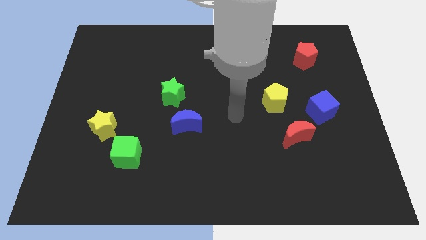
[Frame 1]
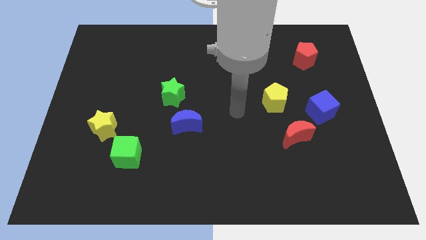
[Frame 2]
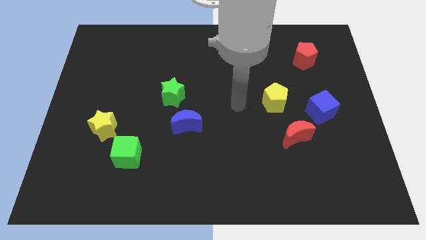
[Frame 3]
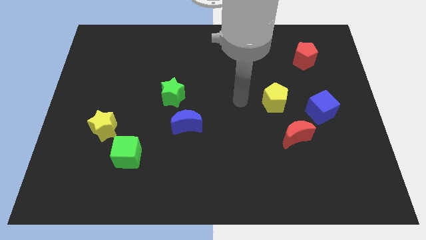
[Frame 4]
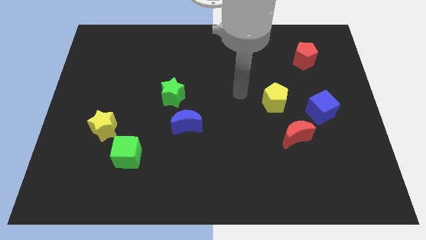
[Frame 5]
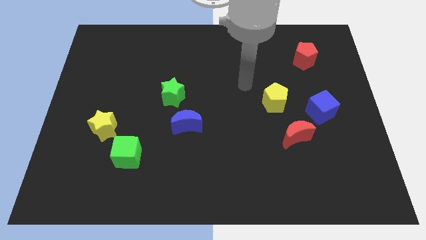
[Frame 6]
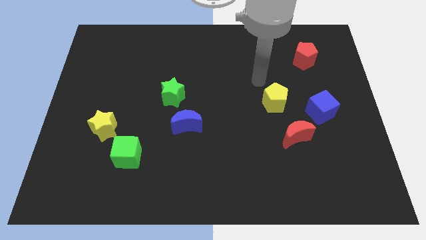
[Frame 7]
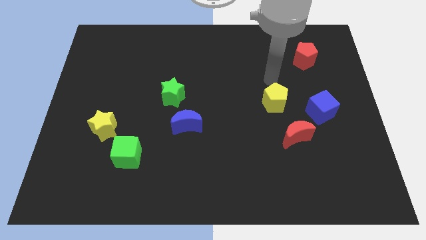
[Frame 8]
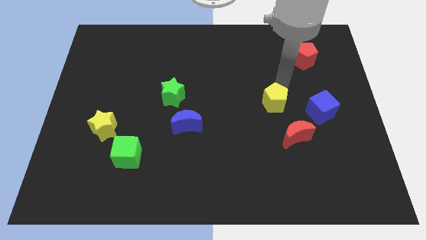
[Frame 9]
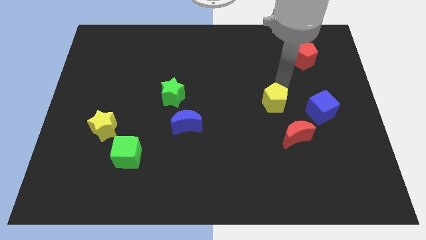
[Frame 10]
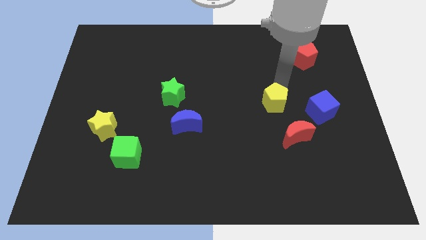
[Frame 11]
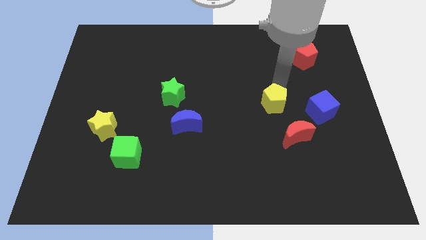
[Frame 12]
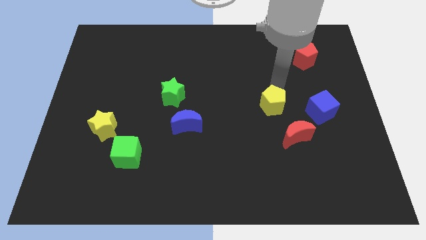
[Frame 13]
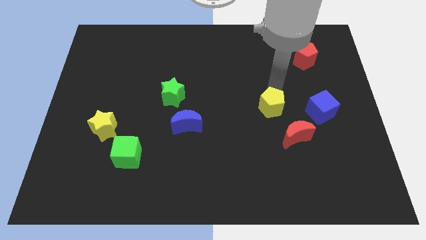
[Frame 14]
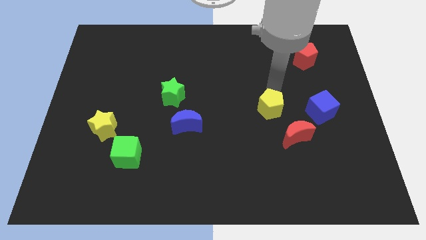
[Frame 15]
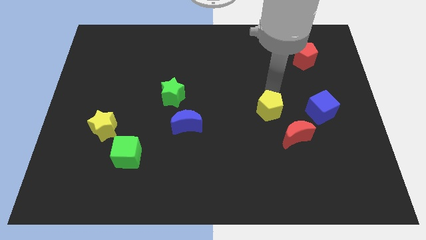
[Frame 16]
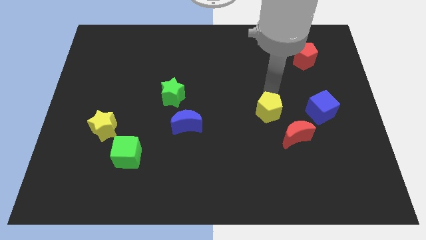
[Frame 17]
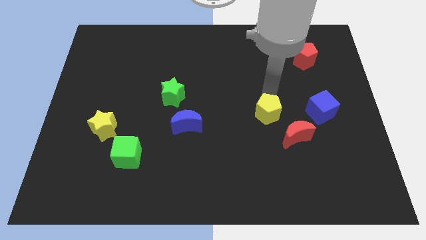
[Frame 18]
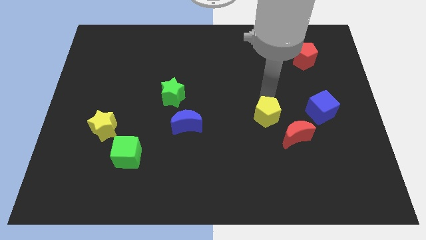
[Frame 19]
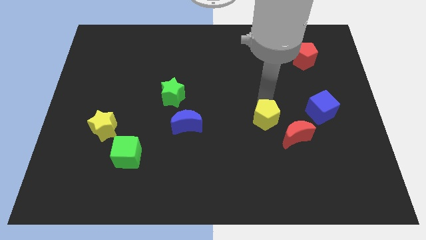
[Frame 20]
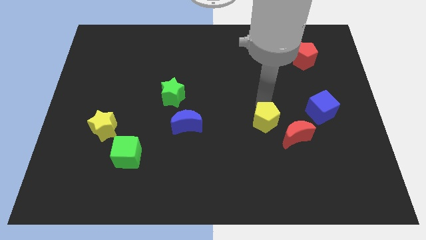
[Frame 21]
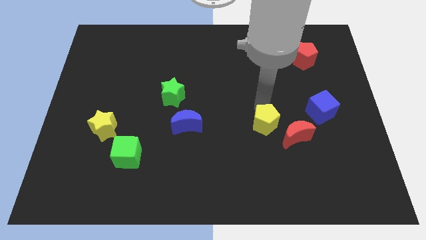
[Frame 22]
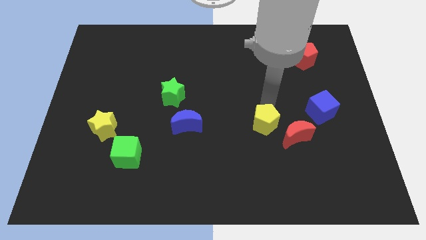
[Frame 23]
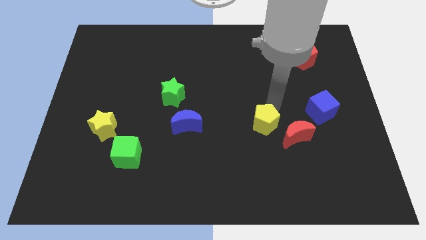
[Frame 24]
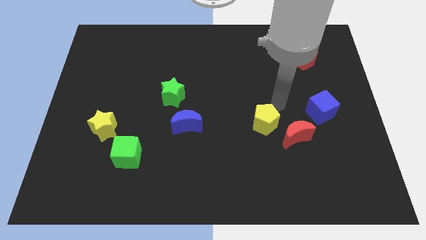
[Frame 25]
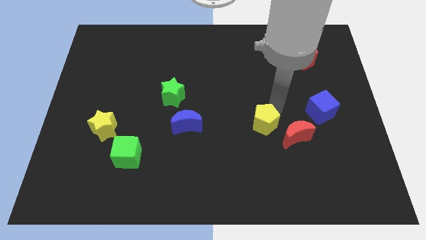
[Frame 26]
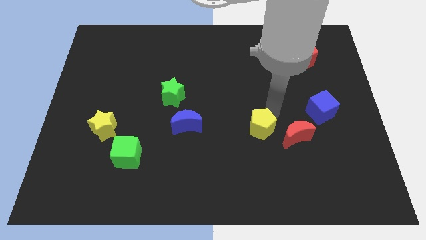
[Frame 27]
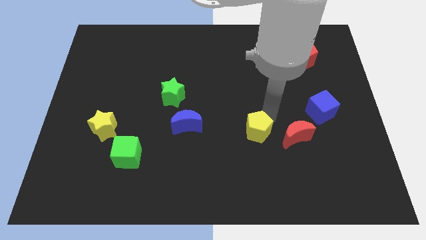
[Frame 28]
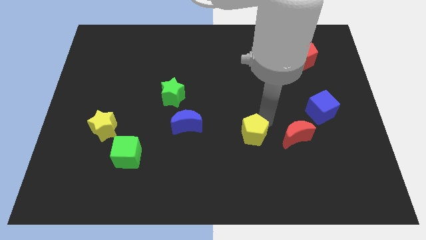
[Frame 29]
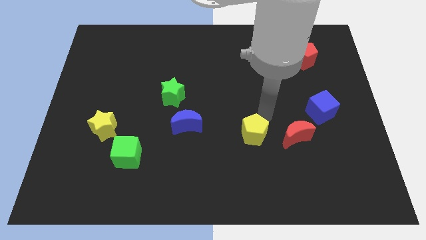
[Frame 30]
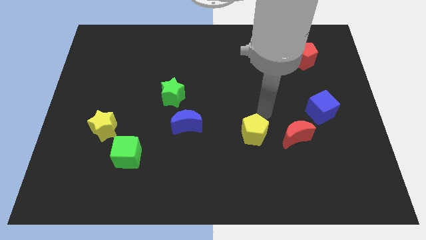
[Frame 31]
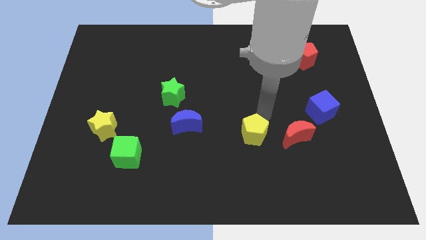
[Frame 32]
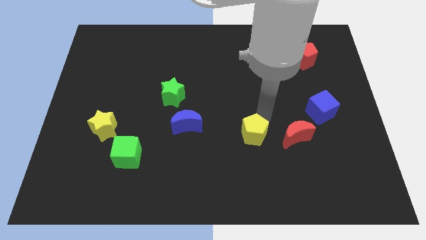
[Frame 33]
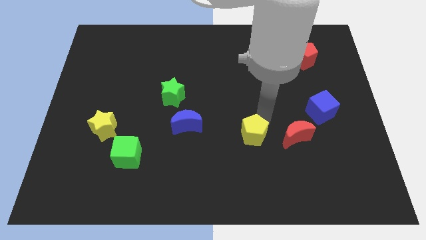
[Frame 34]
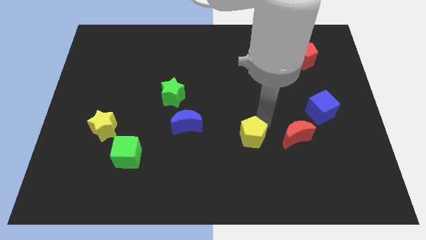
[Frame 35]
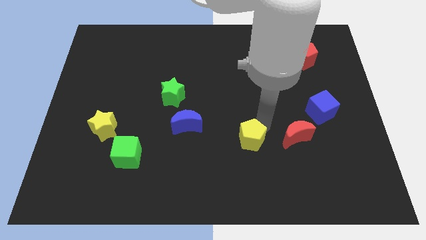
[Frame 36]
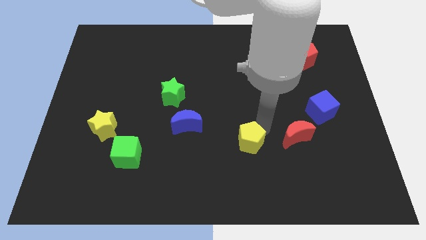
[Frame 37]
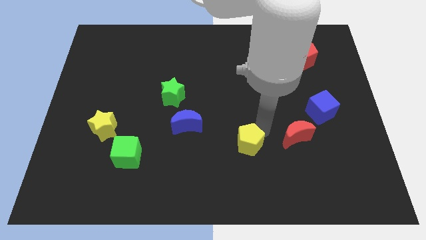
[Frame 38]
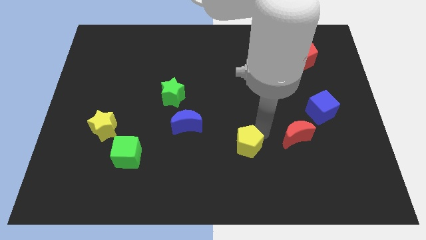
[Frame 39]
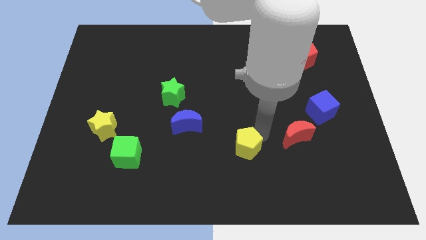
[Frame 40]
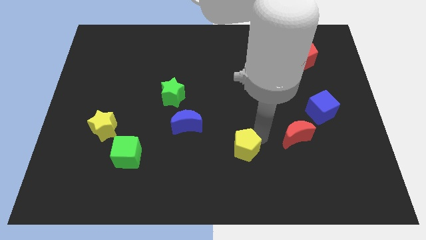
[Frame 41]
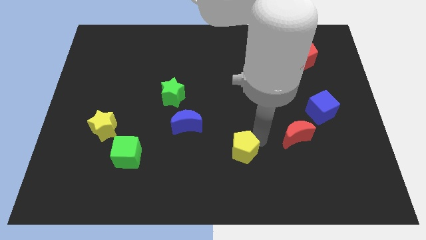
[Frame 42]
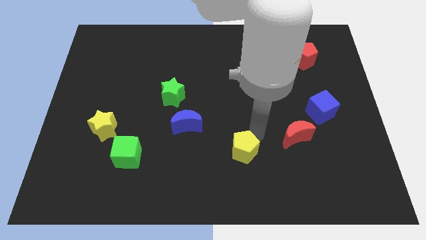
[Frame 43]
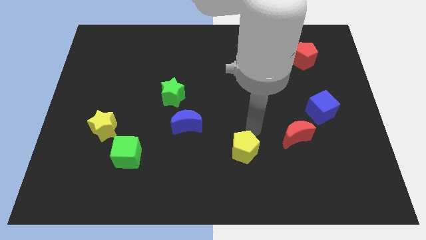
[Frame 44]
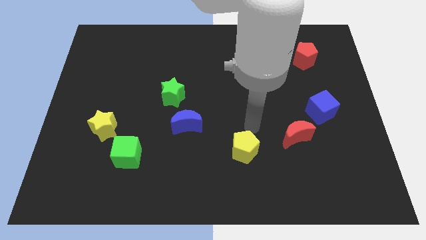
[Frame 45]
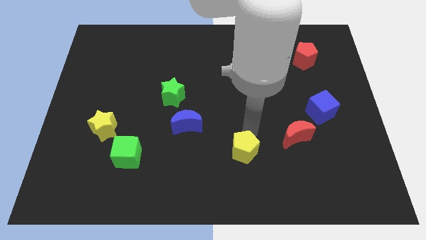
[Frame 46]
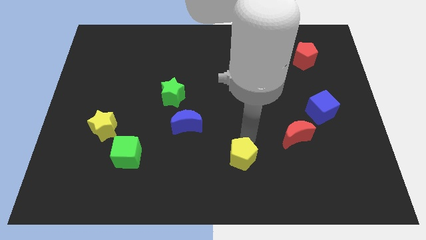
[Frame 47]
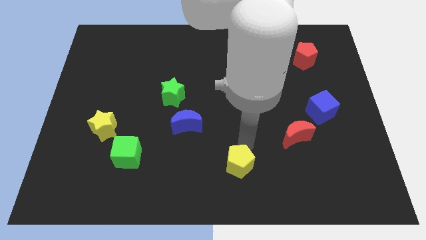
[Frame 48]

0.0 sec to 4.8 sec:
move the yellow pentagon to the bottom

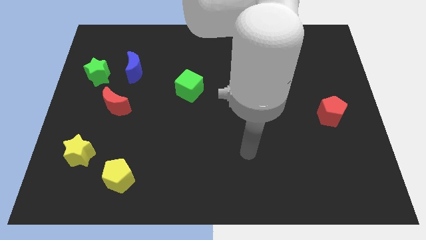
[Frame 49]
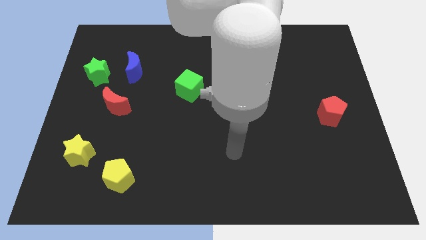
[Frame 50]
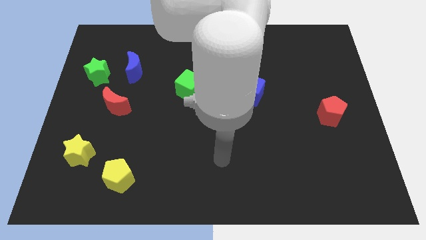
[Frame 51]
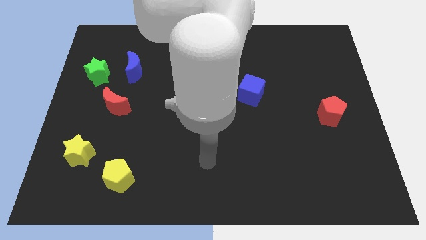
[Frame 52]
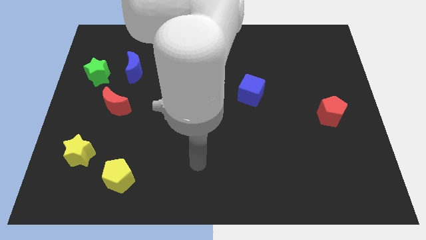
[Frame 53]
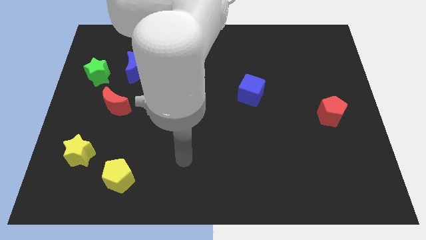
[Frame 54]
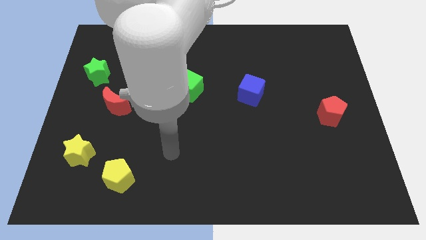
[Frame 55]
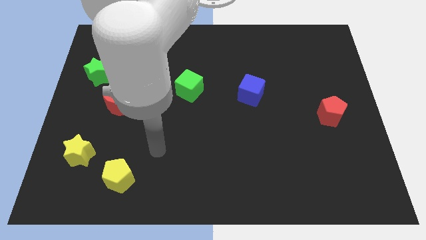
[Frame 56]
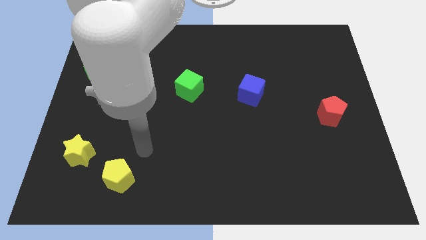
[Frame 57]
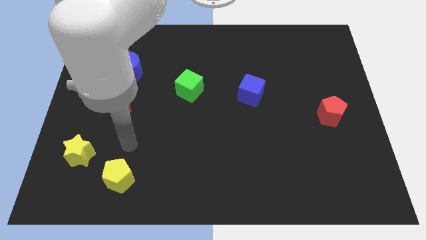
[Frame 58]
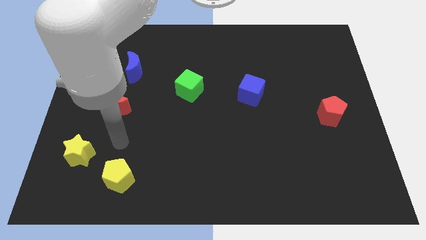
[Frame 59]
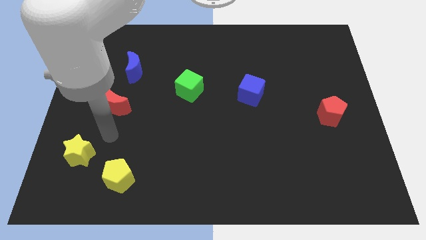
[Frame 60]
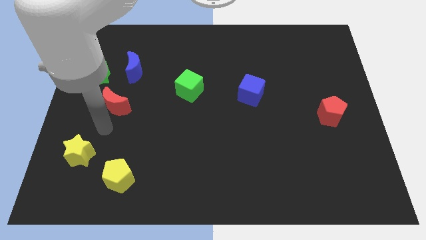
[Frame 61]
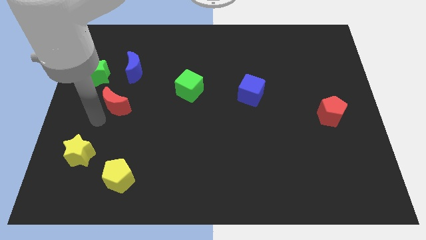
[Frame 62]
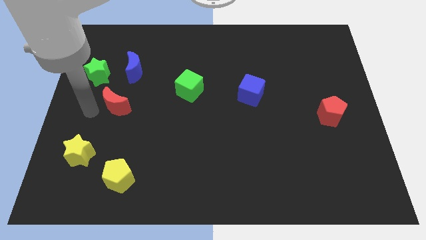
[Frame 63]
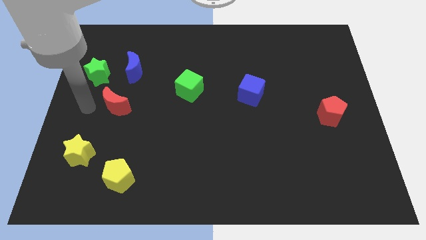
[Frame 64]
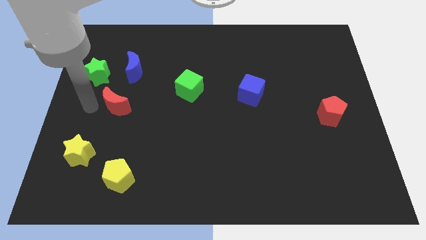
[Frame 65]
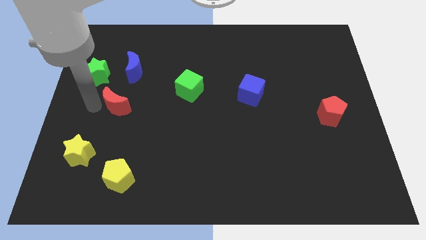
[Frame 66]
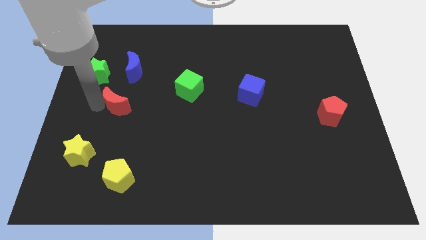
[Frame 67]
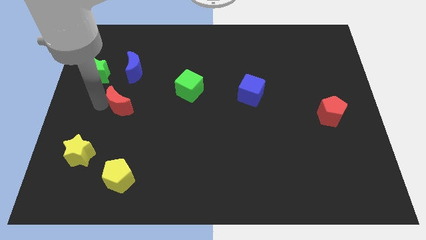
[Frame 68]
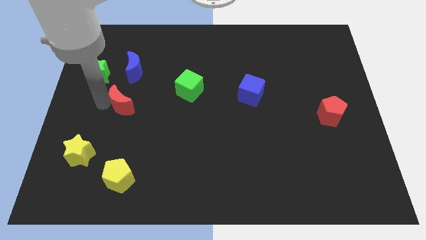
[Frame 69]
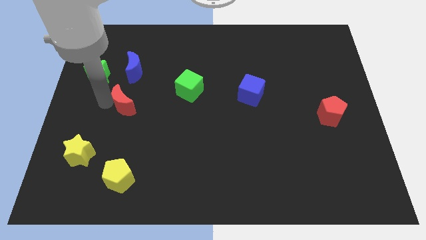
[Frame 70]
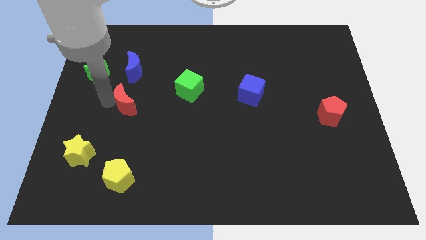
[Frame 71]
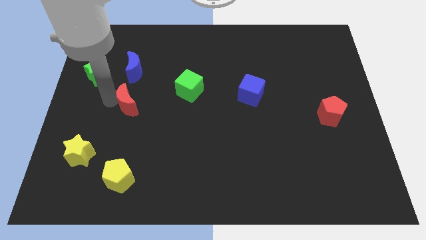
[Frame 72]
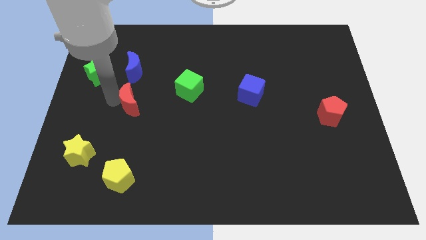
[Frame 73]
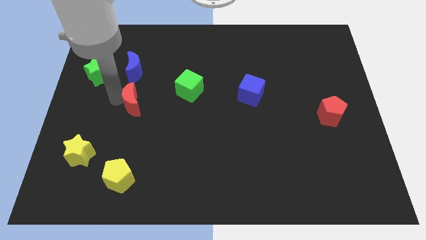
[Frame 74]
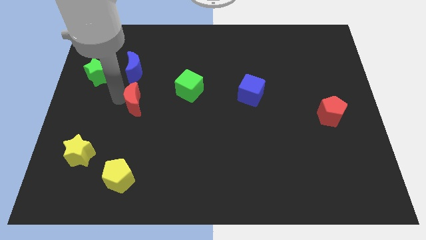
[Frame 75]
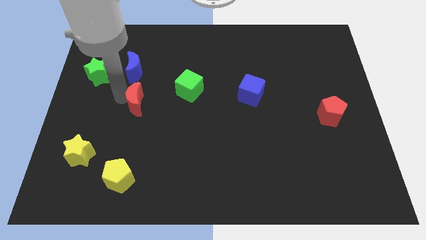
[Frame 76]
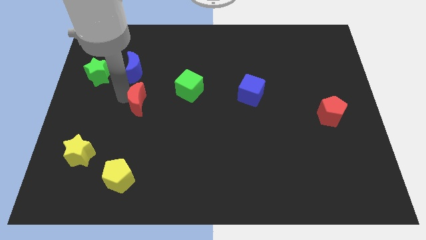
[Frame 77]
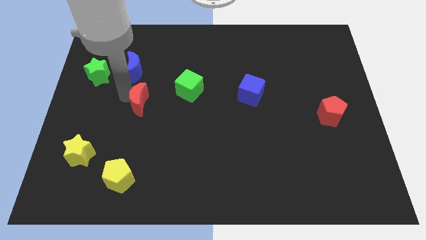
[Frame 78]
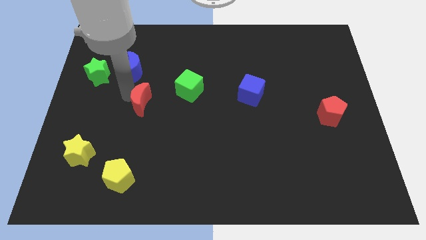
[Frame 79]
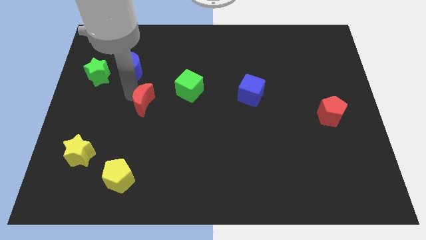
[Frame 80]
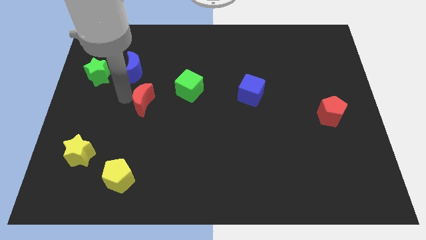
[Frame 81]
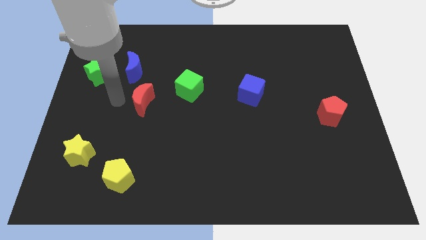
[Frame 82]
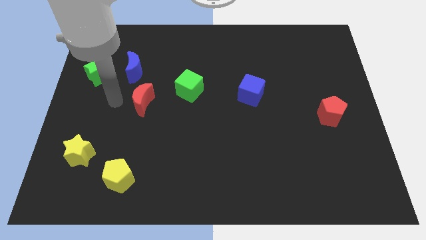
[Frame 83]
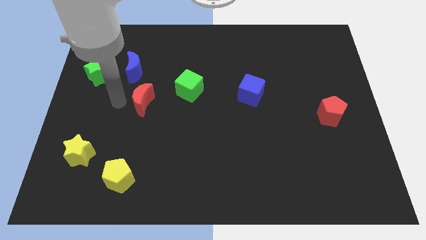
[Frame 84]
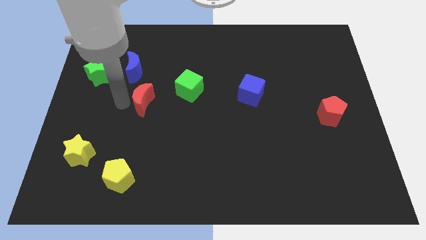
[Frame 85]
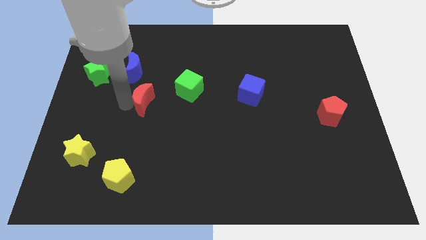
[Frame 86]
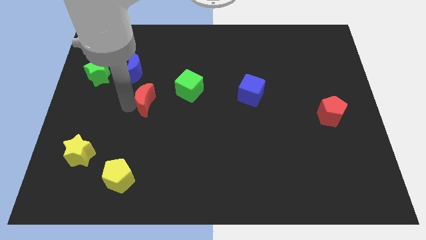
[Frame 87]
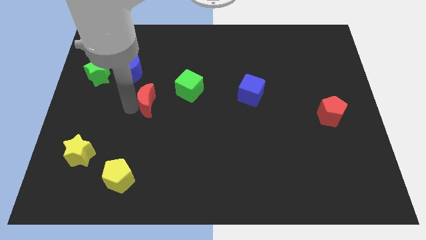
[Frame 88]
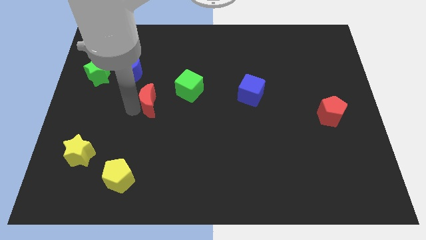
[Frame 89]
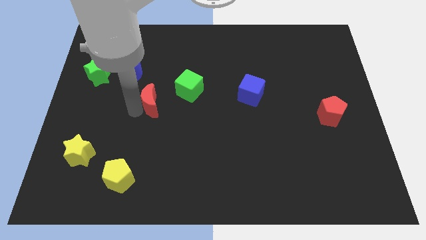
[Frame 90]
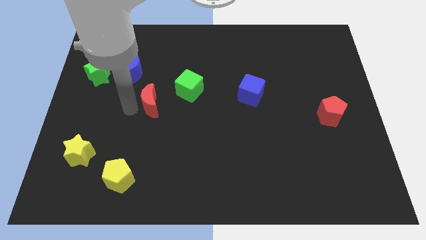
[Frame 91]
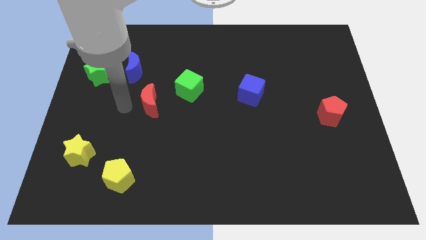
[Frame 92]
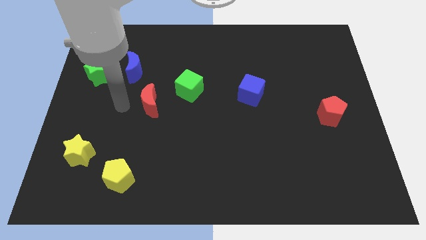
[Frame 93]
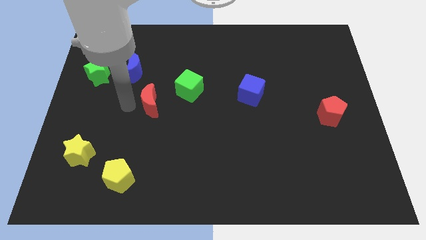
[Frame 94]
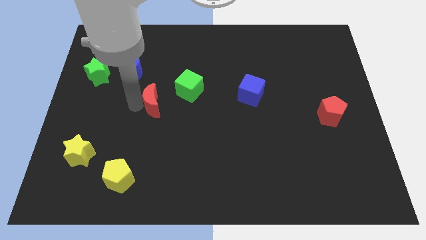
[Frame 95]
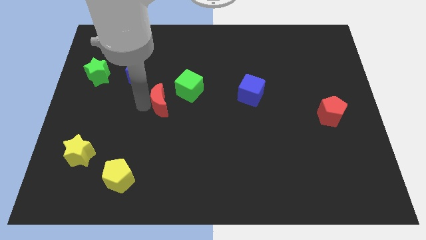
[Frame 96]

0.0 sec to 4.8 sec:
put the red moon to the middle
